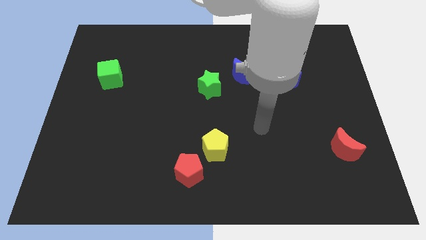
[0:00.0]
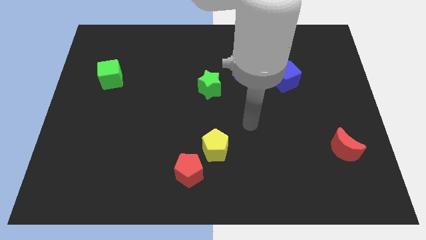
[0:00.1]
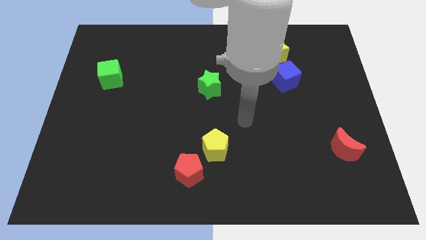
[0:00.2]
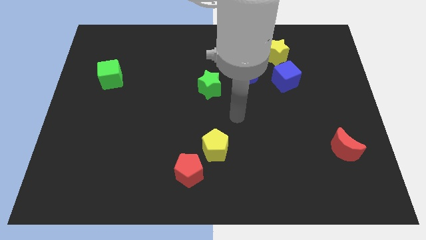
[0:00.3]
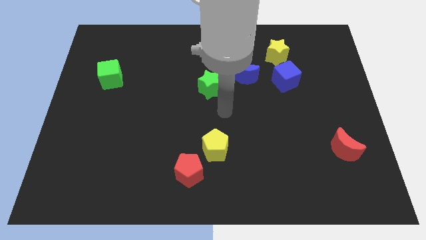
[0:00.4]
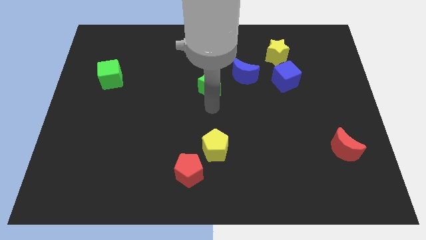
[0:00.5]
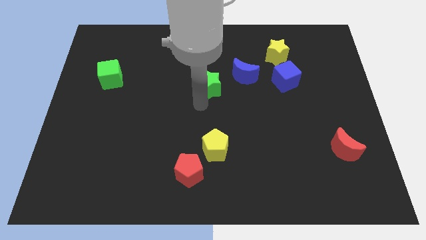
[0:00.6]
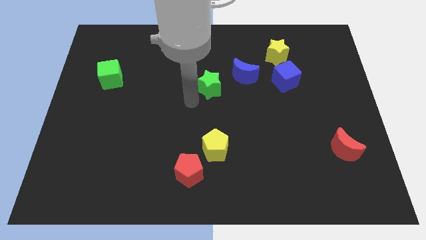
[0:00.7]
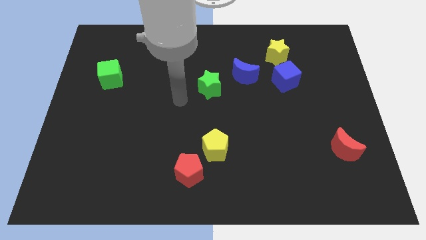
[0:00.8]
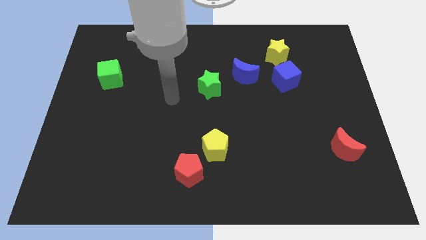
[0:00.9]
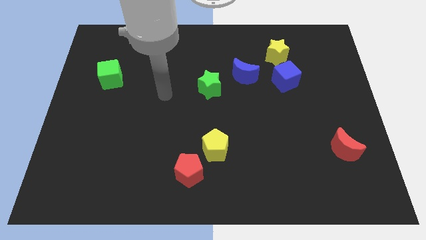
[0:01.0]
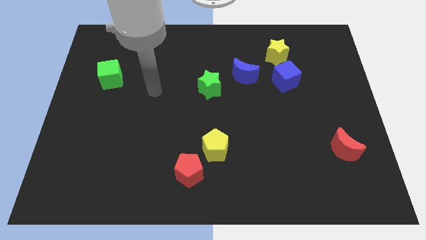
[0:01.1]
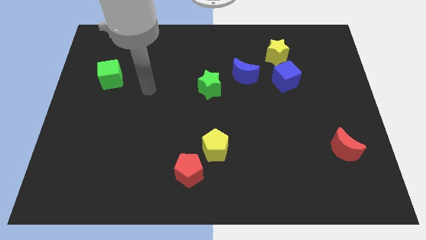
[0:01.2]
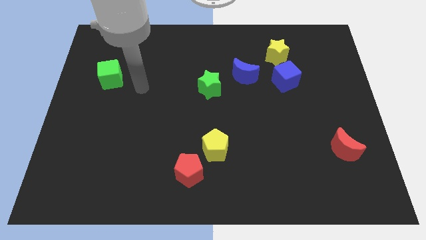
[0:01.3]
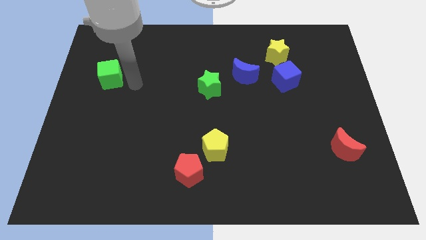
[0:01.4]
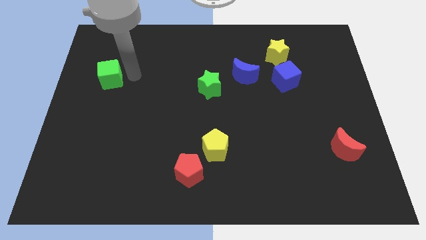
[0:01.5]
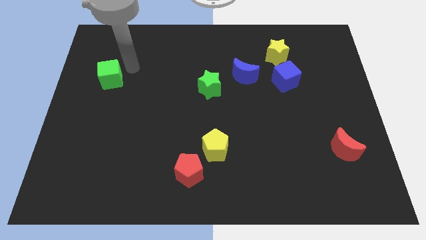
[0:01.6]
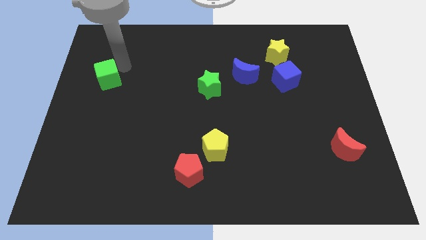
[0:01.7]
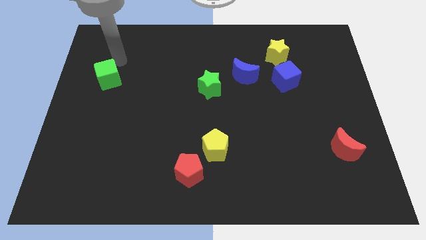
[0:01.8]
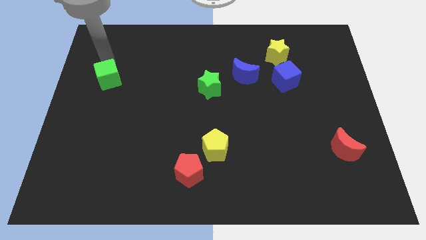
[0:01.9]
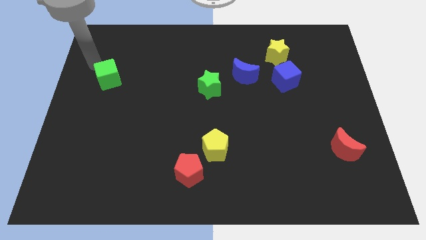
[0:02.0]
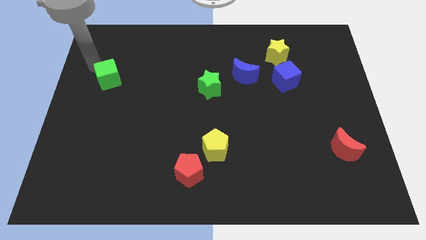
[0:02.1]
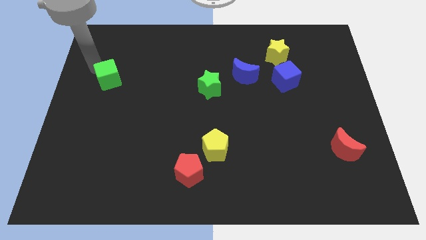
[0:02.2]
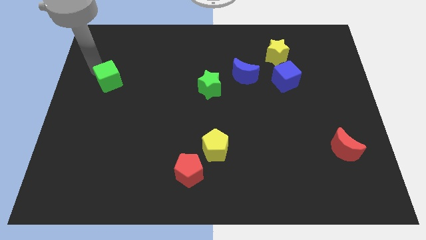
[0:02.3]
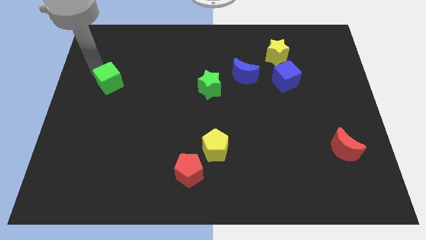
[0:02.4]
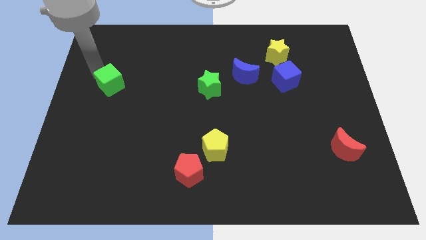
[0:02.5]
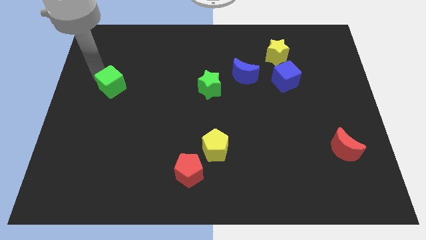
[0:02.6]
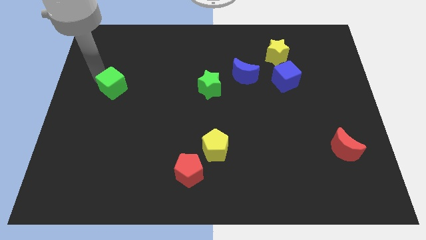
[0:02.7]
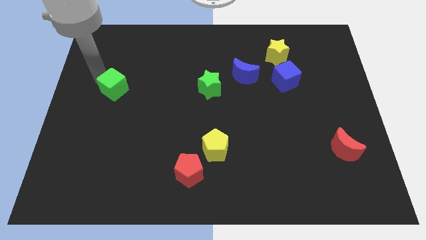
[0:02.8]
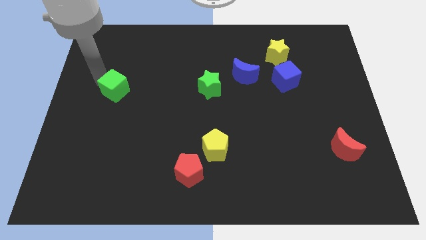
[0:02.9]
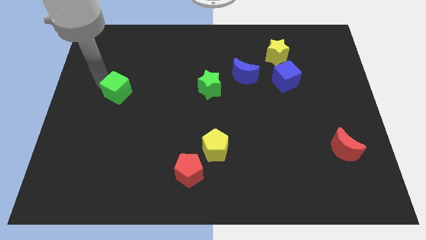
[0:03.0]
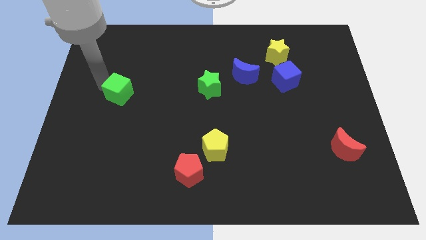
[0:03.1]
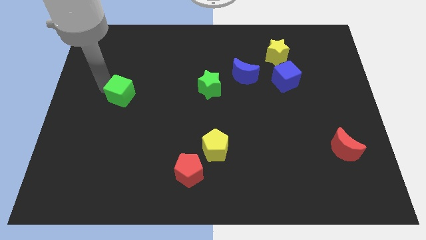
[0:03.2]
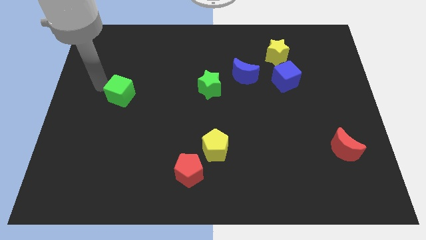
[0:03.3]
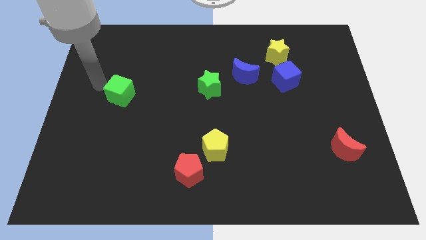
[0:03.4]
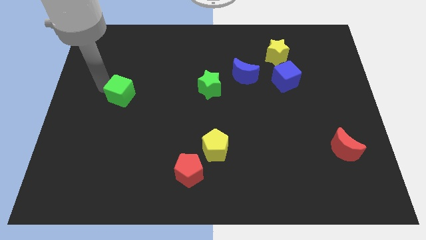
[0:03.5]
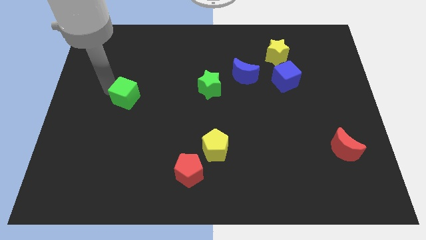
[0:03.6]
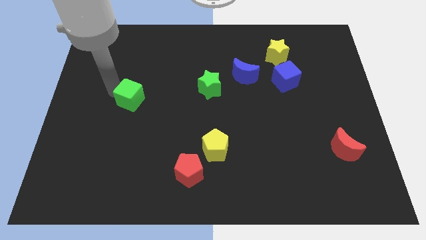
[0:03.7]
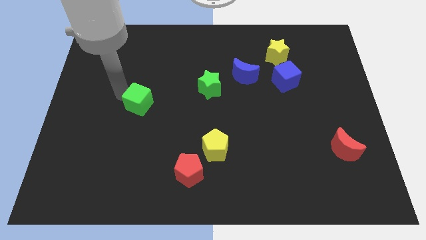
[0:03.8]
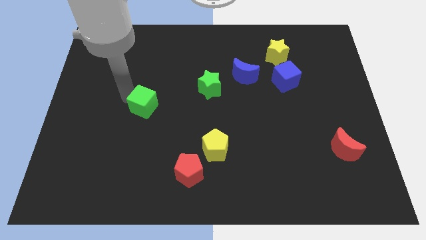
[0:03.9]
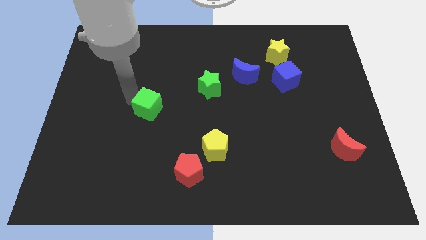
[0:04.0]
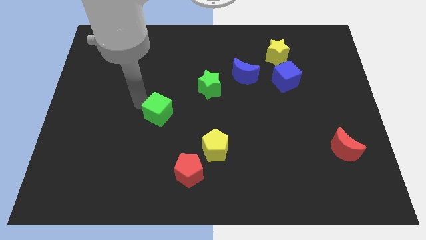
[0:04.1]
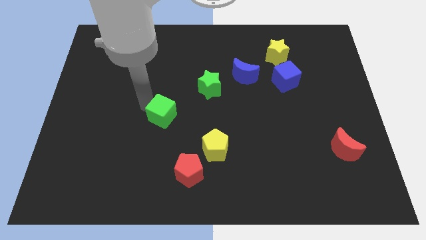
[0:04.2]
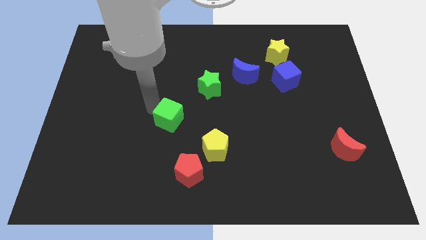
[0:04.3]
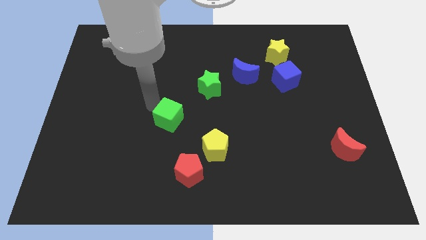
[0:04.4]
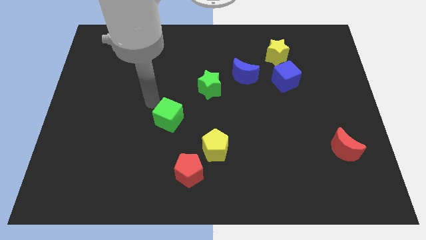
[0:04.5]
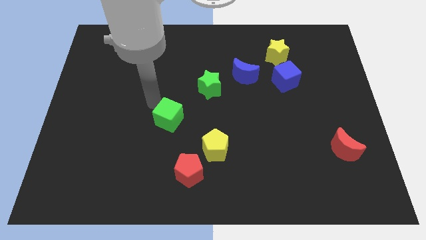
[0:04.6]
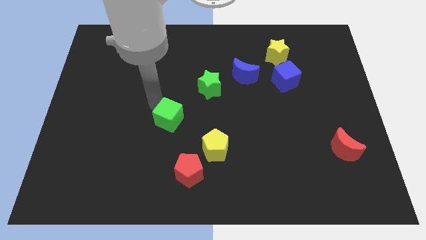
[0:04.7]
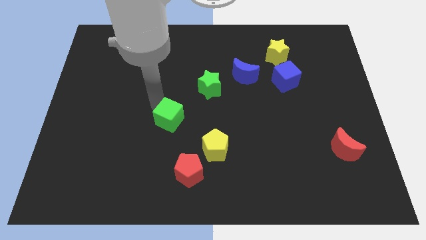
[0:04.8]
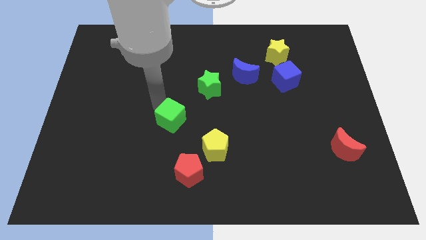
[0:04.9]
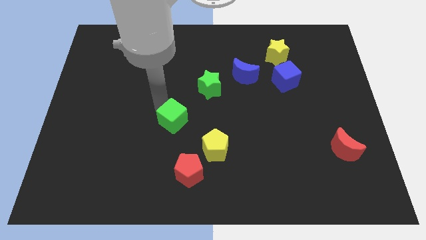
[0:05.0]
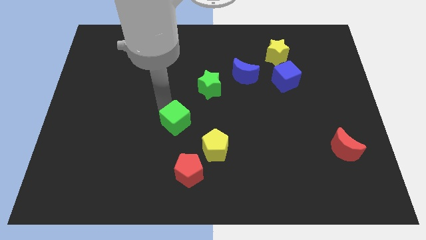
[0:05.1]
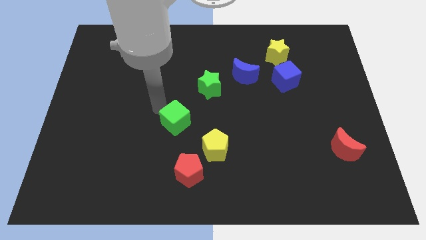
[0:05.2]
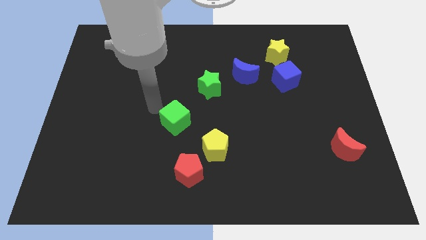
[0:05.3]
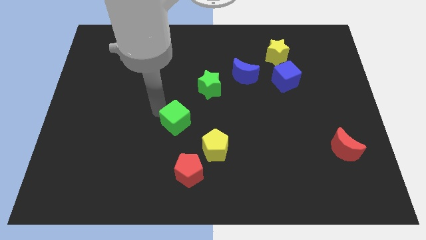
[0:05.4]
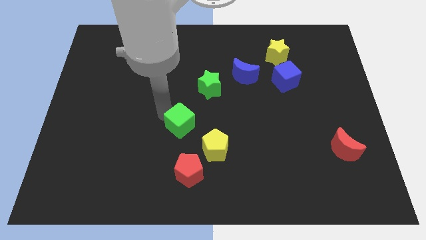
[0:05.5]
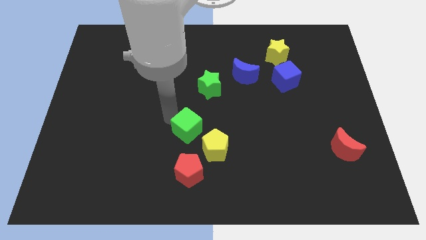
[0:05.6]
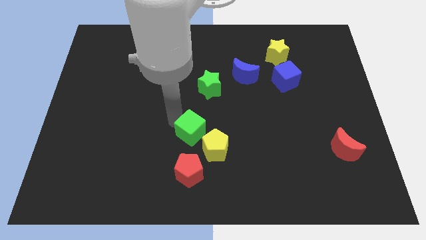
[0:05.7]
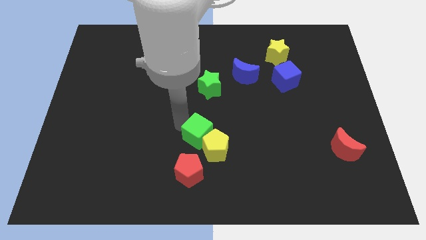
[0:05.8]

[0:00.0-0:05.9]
move the green cube close to the yellow pentagon

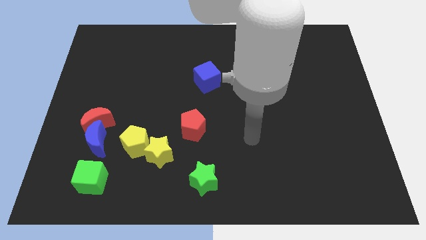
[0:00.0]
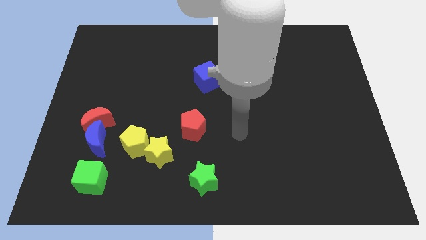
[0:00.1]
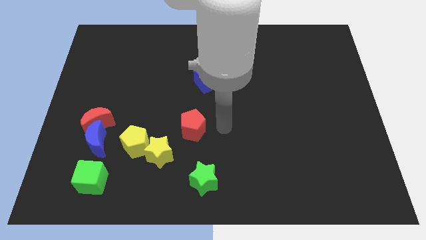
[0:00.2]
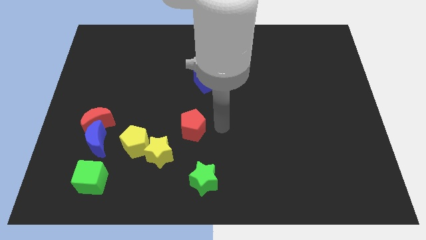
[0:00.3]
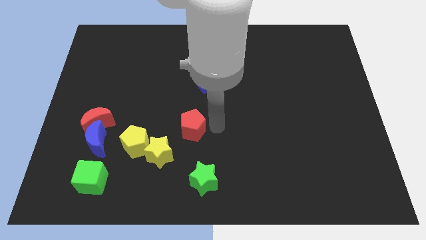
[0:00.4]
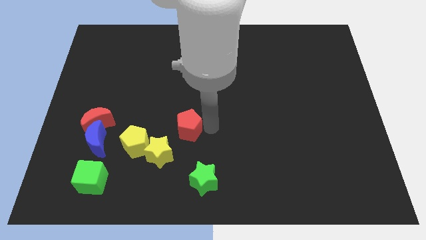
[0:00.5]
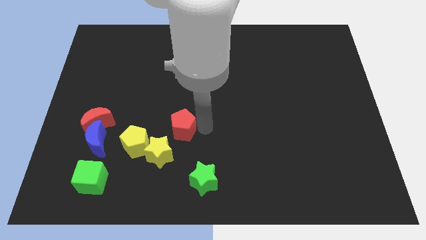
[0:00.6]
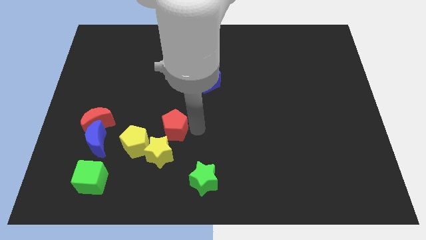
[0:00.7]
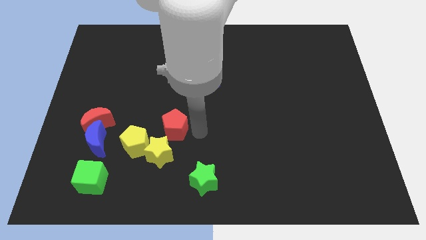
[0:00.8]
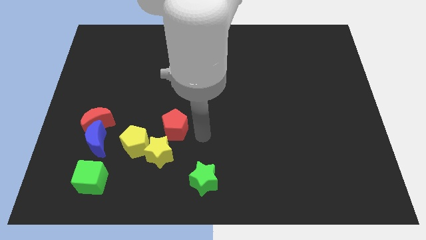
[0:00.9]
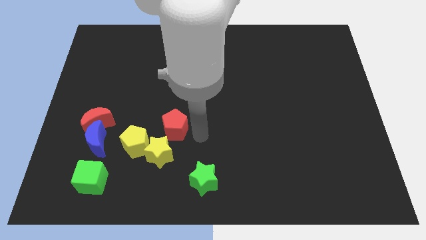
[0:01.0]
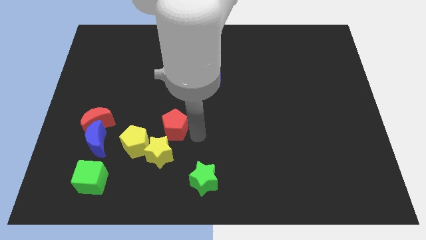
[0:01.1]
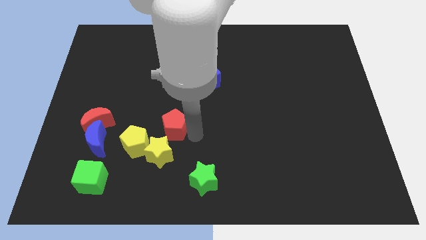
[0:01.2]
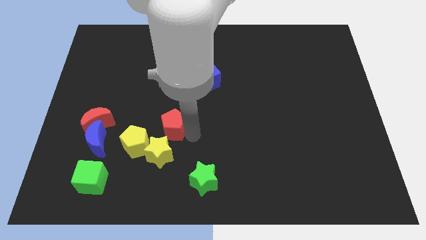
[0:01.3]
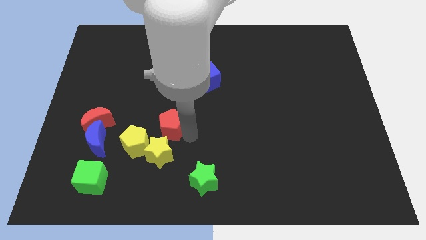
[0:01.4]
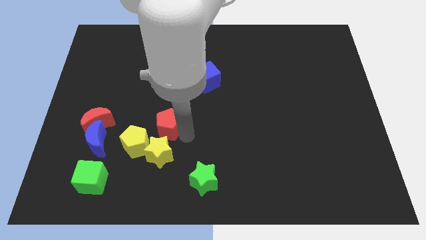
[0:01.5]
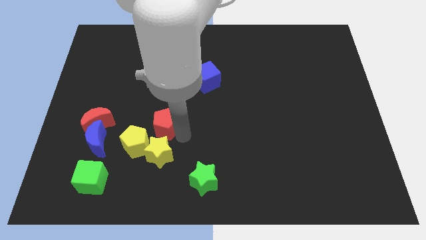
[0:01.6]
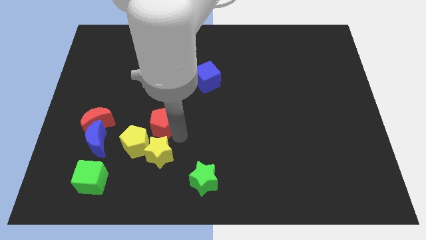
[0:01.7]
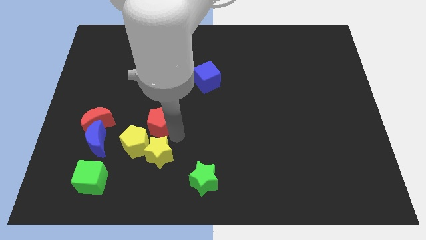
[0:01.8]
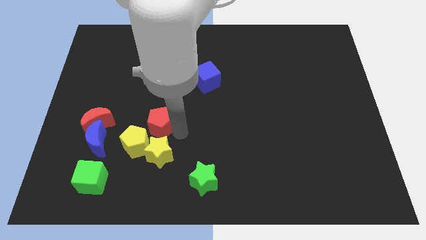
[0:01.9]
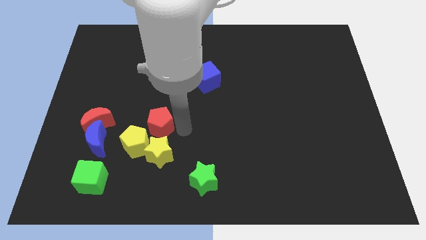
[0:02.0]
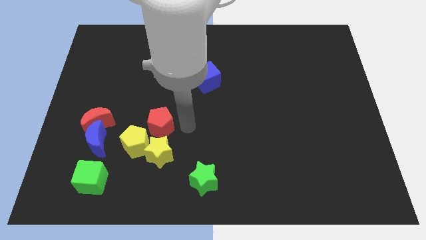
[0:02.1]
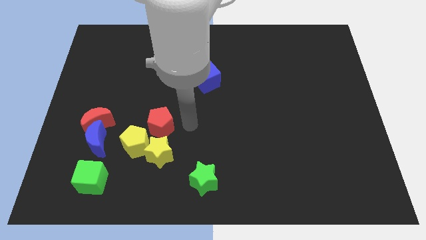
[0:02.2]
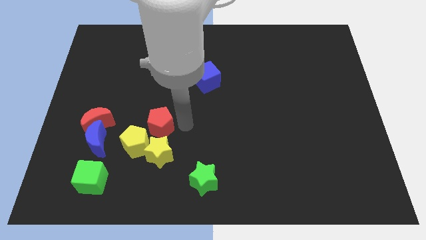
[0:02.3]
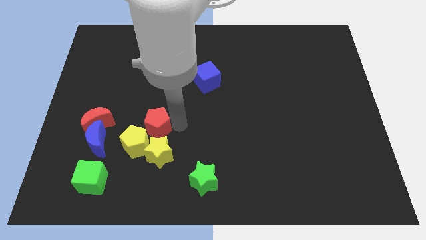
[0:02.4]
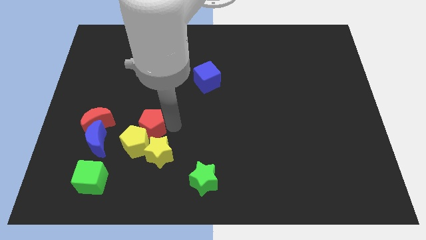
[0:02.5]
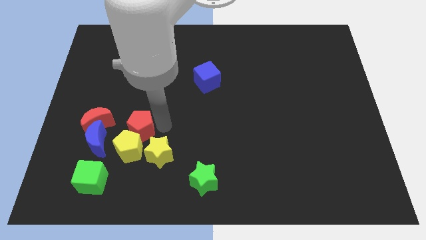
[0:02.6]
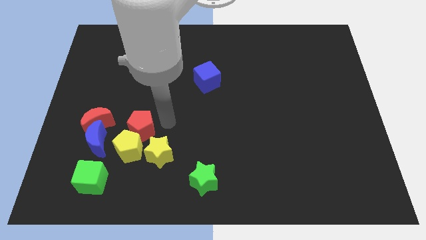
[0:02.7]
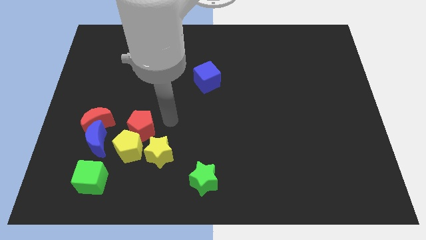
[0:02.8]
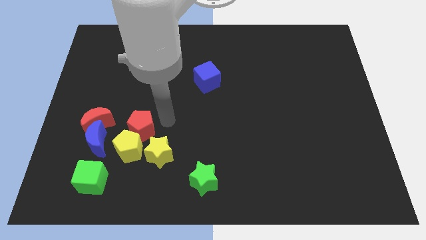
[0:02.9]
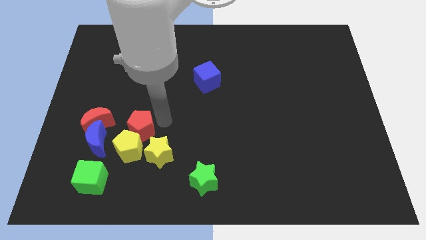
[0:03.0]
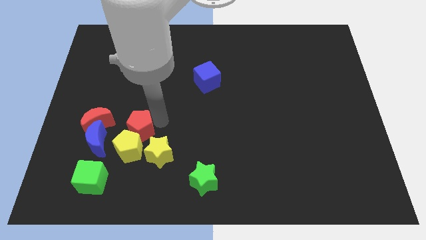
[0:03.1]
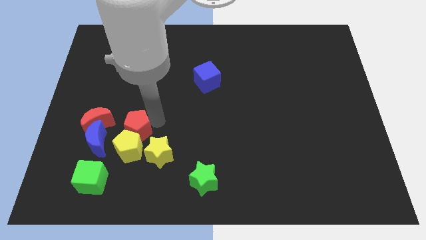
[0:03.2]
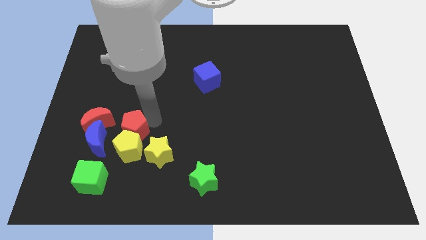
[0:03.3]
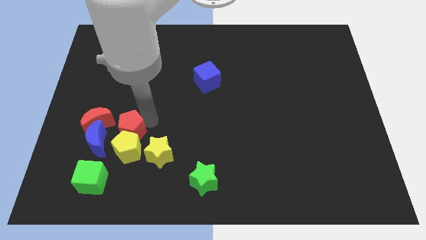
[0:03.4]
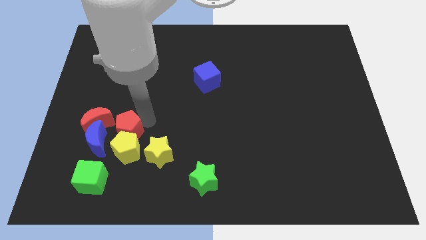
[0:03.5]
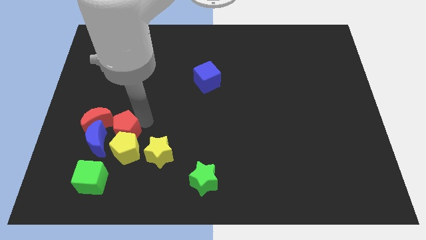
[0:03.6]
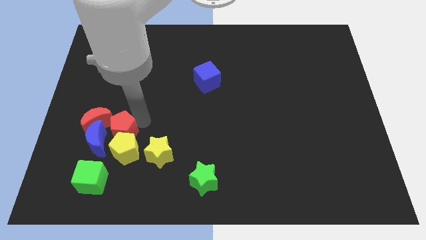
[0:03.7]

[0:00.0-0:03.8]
move the red pentagon next to the blue moon
